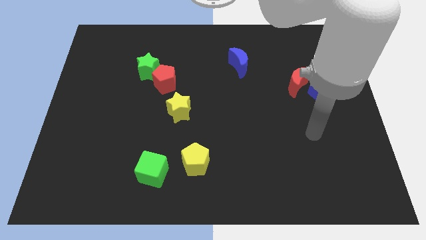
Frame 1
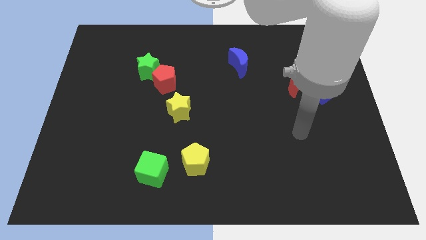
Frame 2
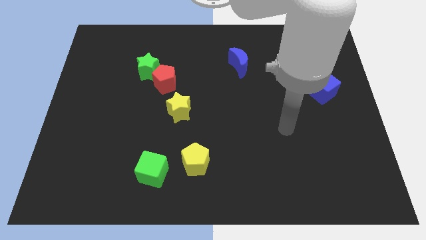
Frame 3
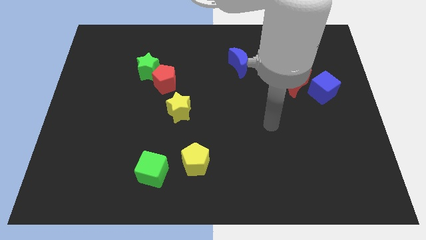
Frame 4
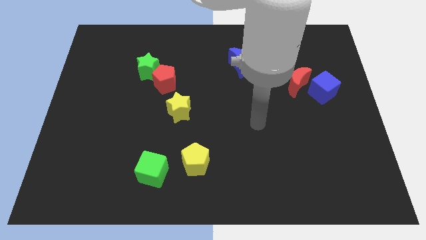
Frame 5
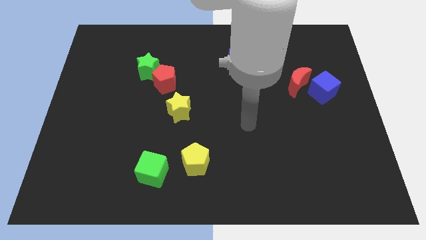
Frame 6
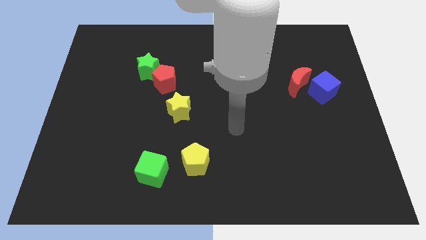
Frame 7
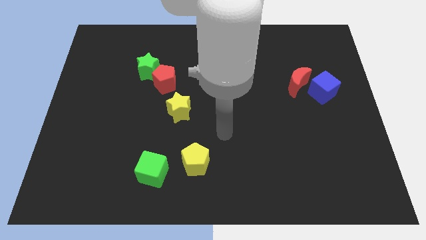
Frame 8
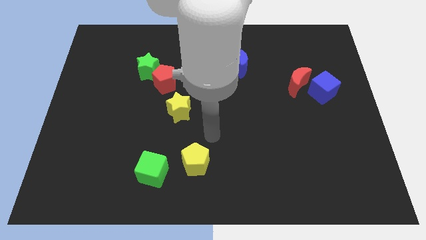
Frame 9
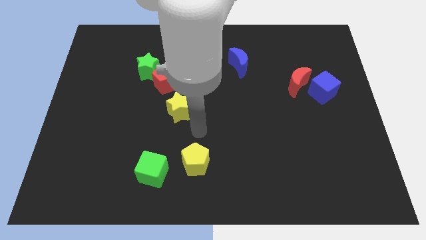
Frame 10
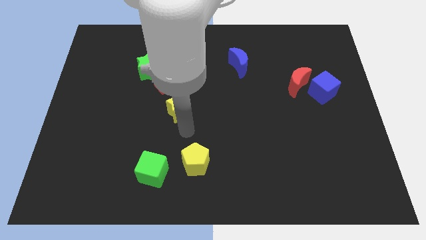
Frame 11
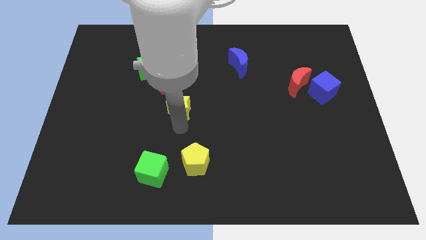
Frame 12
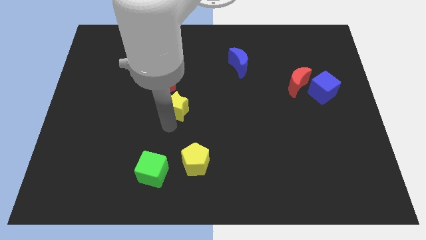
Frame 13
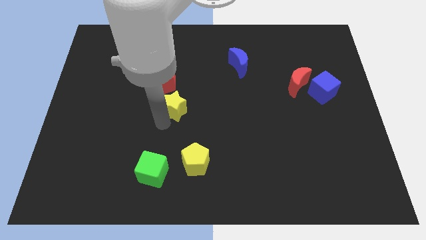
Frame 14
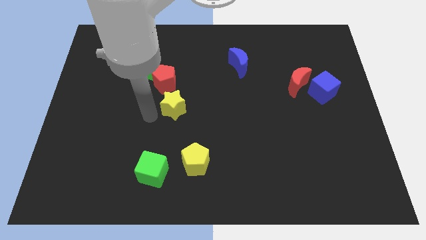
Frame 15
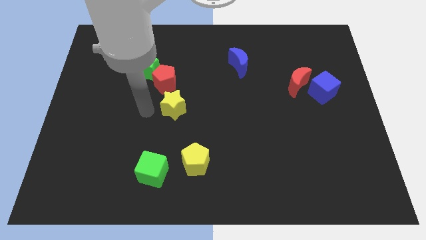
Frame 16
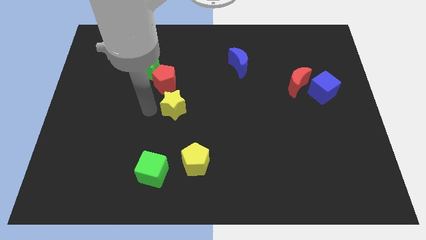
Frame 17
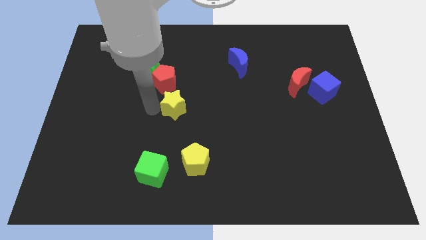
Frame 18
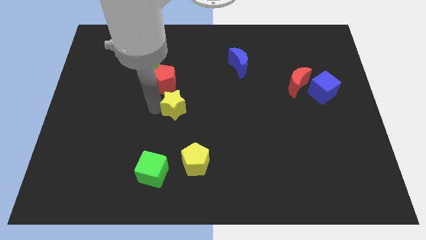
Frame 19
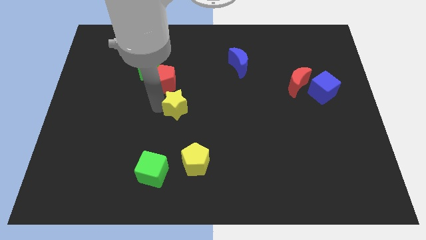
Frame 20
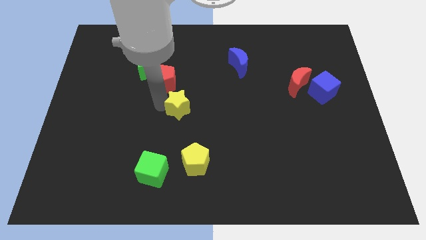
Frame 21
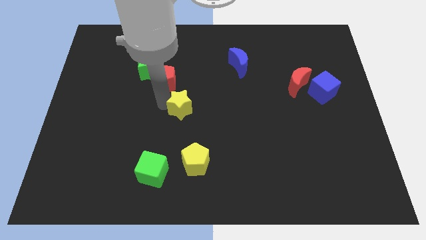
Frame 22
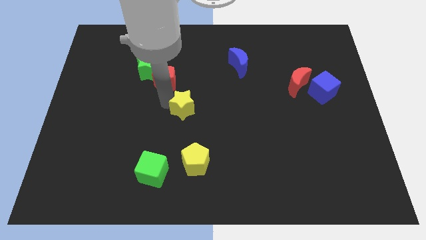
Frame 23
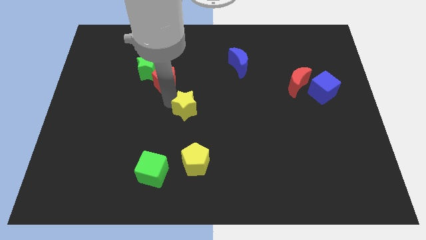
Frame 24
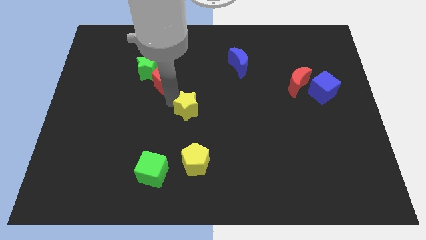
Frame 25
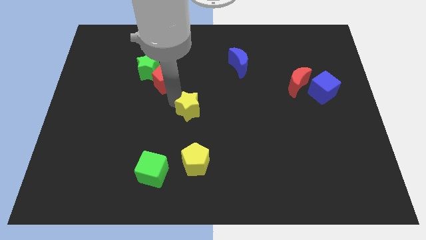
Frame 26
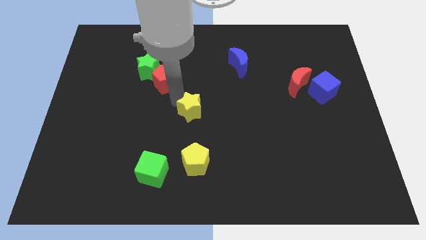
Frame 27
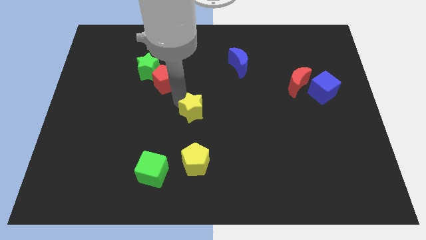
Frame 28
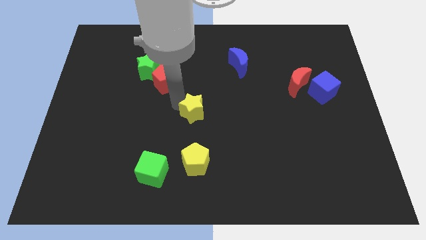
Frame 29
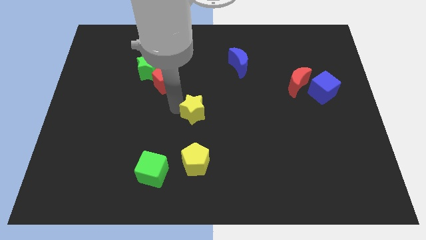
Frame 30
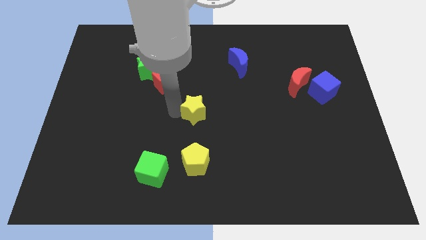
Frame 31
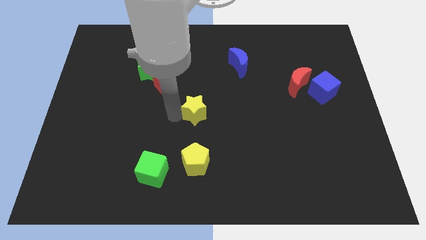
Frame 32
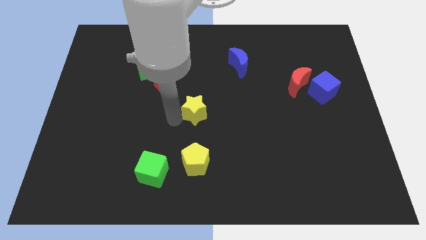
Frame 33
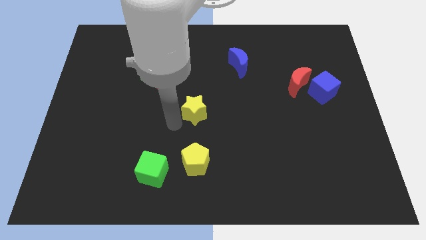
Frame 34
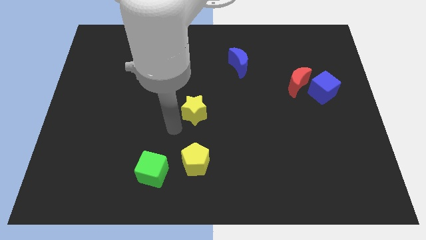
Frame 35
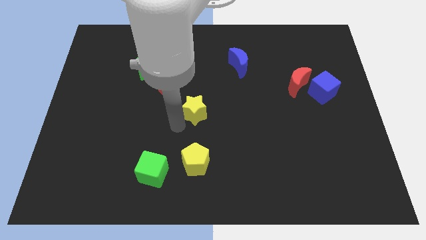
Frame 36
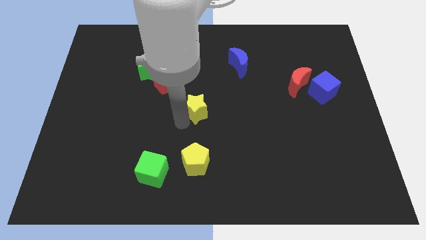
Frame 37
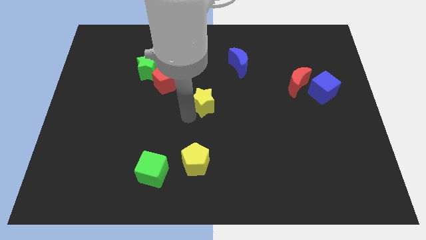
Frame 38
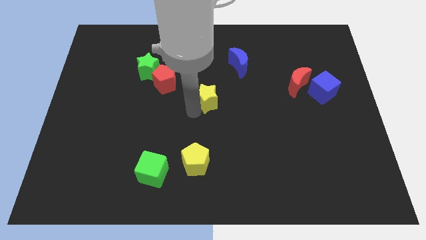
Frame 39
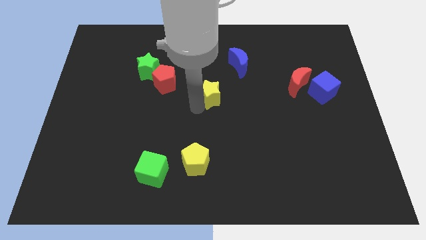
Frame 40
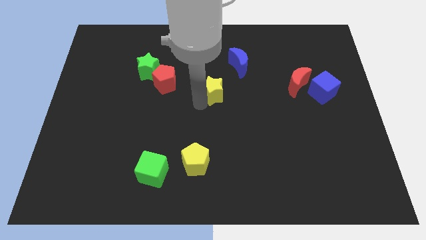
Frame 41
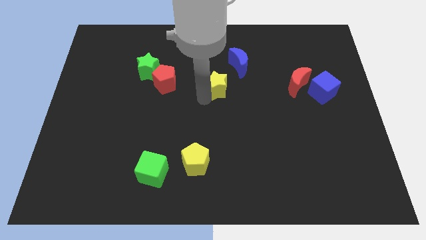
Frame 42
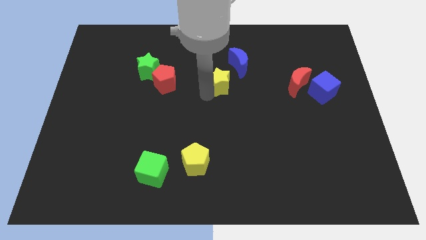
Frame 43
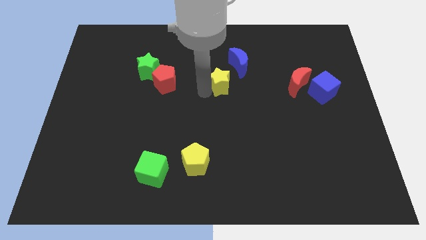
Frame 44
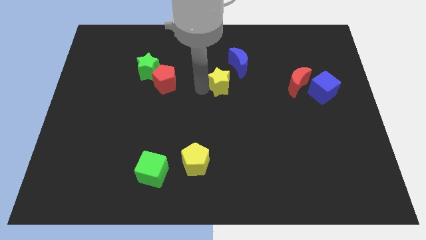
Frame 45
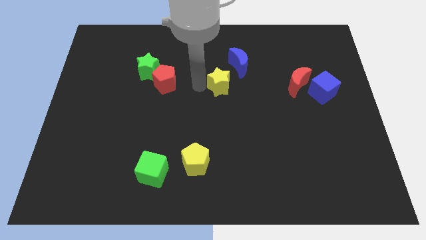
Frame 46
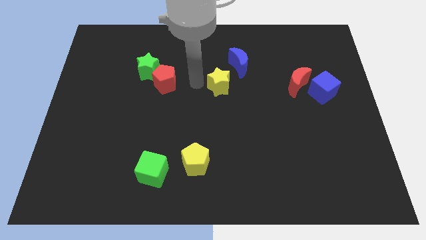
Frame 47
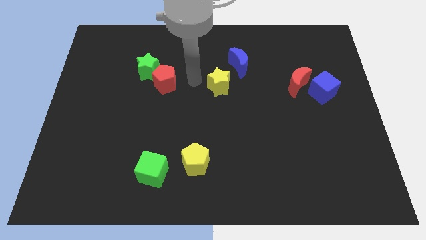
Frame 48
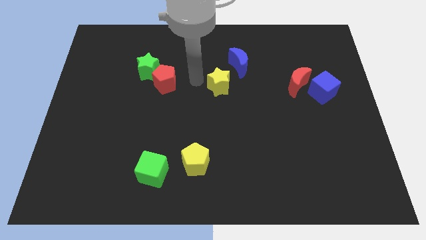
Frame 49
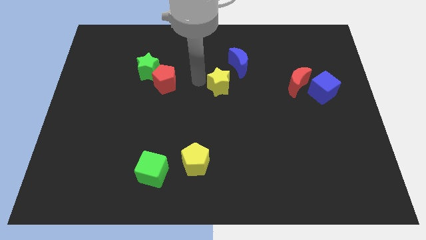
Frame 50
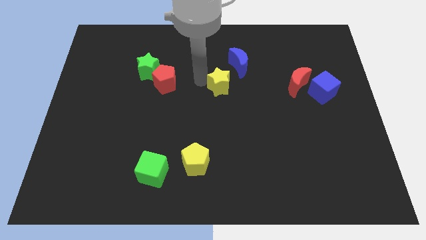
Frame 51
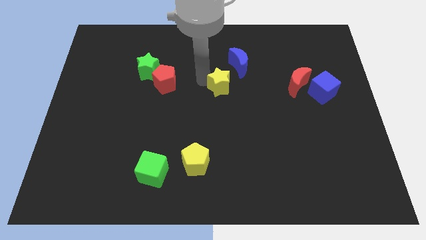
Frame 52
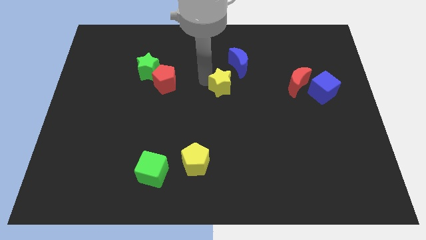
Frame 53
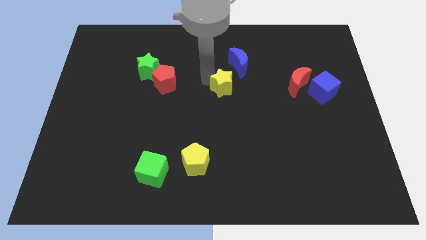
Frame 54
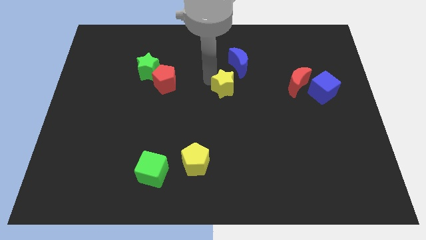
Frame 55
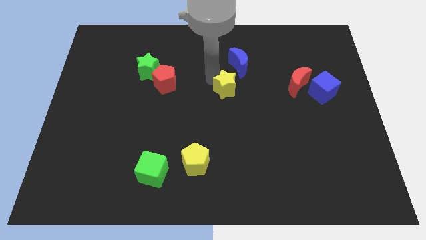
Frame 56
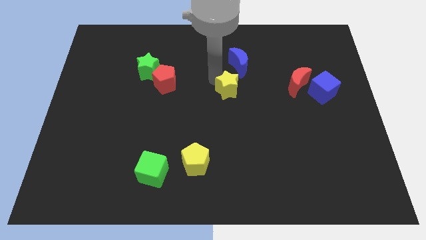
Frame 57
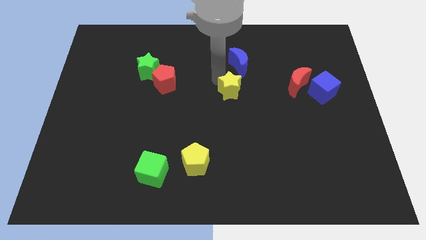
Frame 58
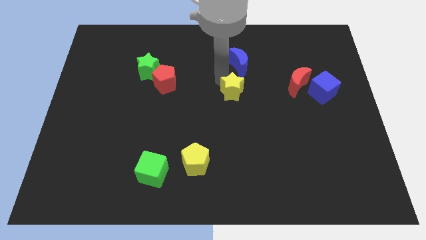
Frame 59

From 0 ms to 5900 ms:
slide the yellow star left of the red moon

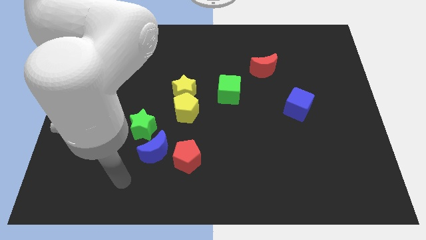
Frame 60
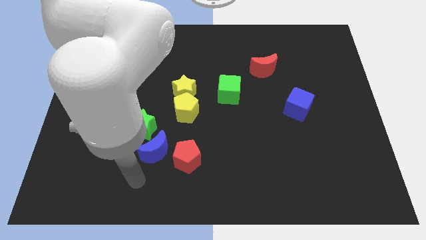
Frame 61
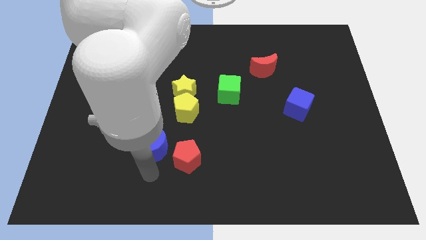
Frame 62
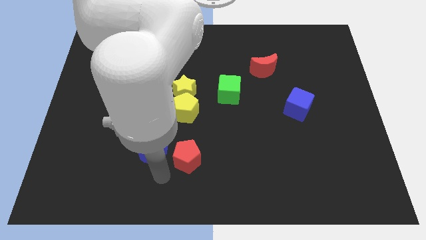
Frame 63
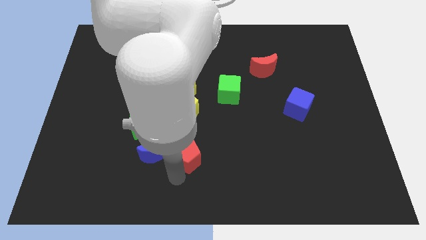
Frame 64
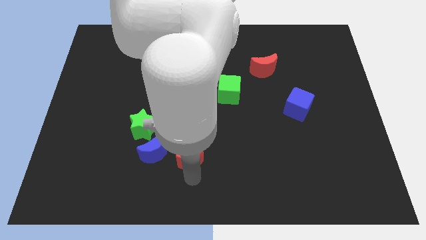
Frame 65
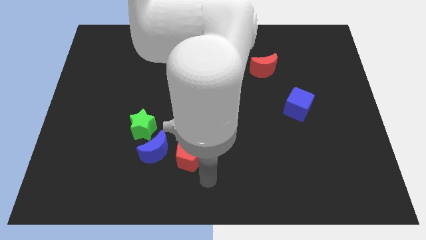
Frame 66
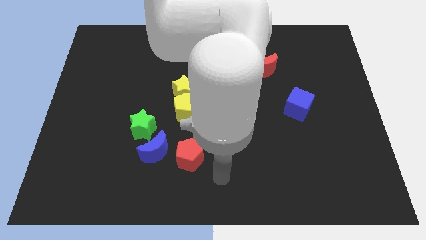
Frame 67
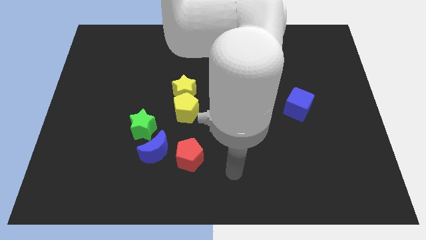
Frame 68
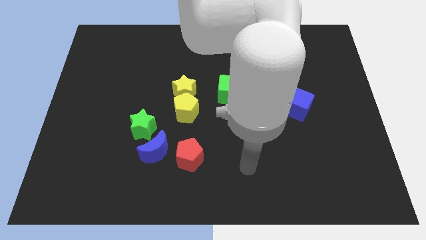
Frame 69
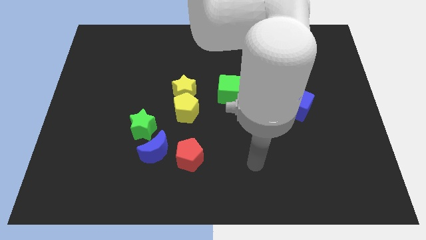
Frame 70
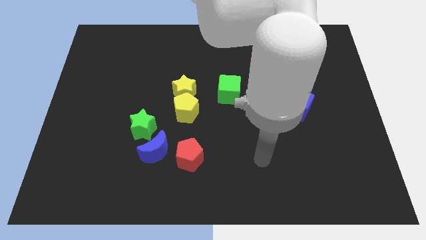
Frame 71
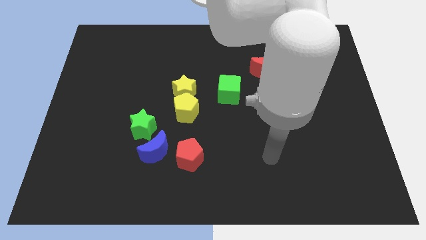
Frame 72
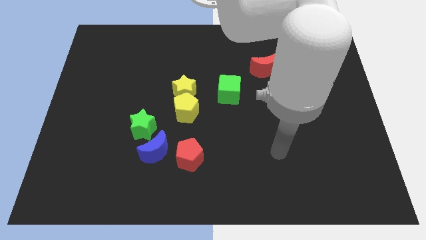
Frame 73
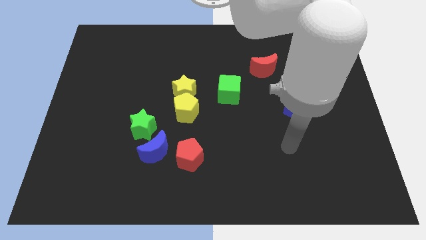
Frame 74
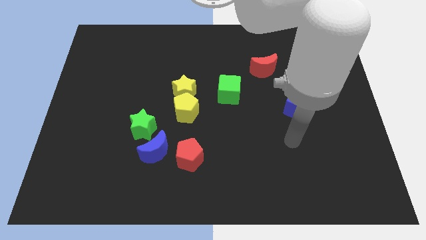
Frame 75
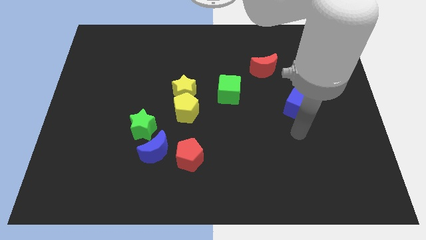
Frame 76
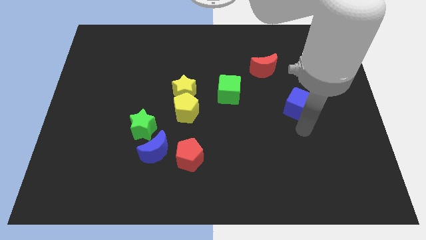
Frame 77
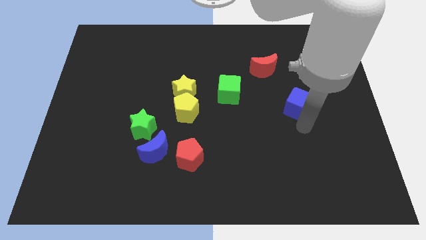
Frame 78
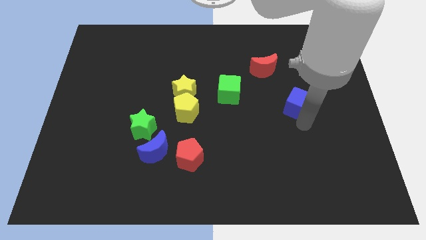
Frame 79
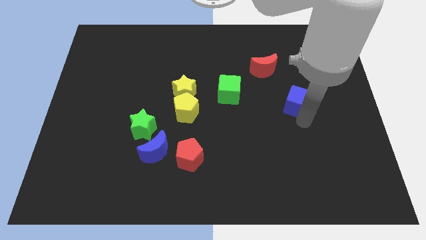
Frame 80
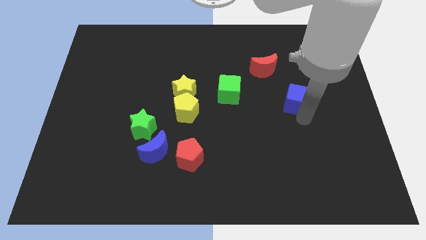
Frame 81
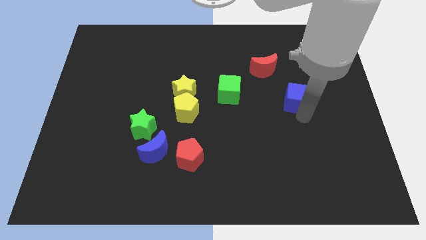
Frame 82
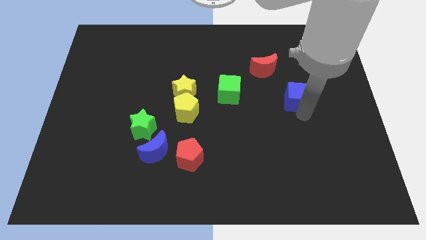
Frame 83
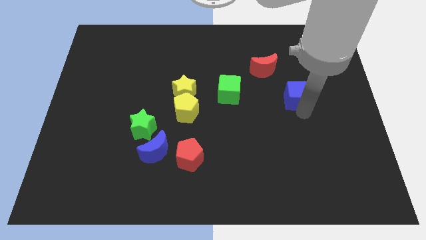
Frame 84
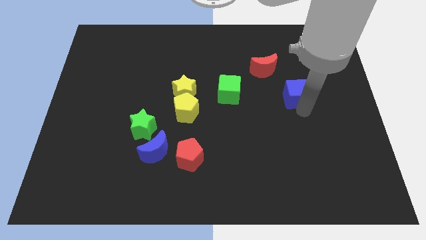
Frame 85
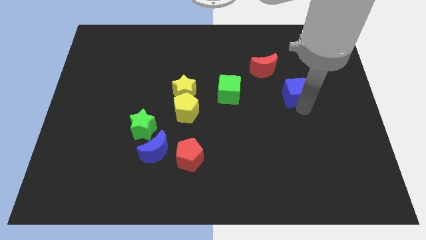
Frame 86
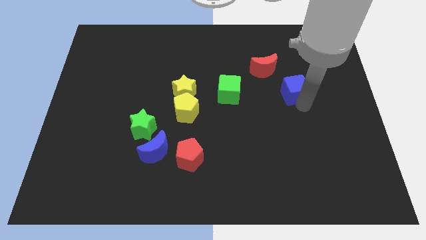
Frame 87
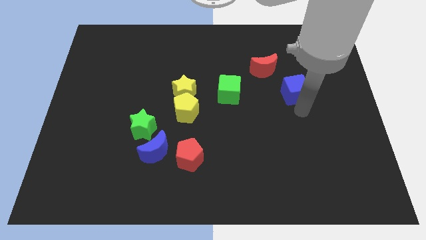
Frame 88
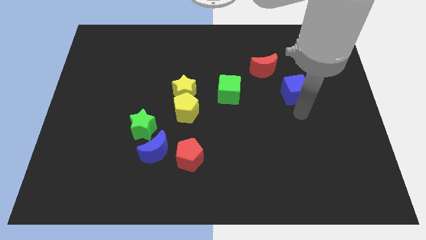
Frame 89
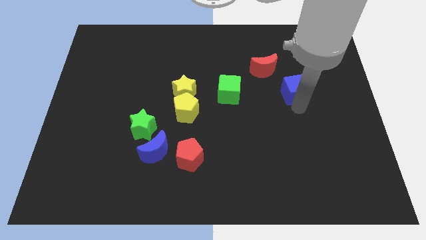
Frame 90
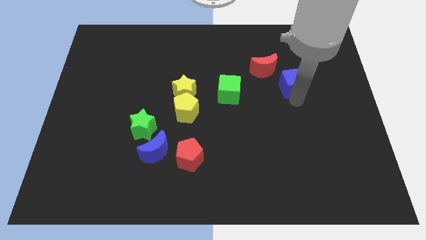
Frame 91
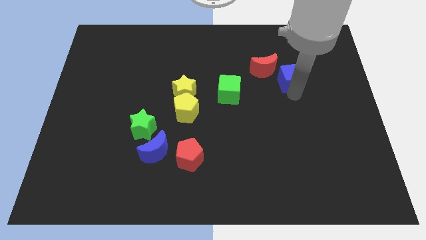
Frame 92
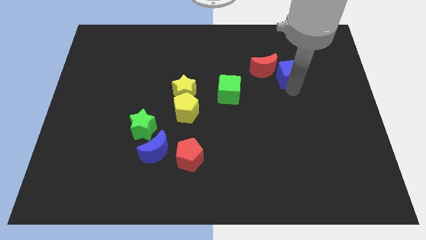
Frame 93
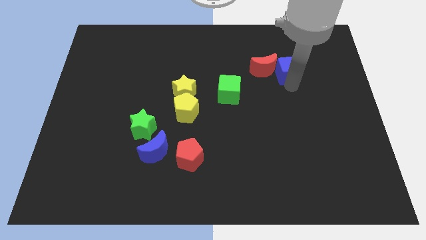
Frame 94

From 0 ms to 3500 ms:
slide the blue cube diagonally up and to the right of the red moon
